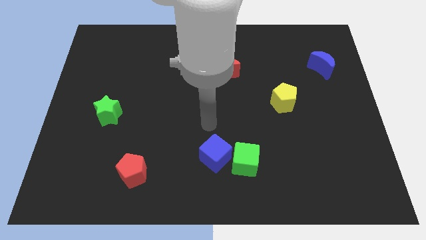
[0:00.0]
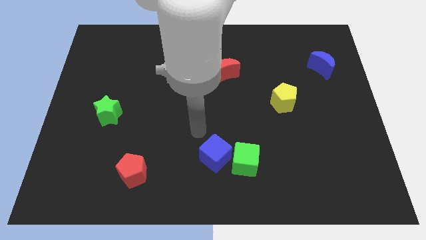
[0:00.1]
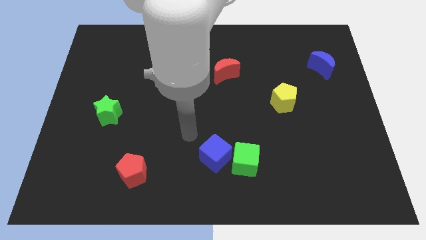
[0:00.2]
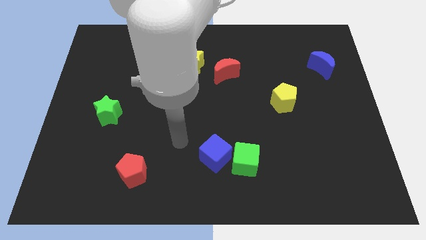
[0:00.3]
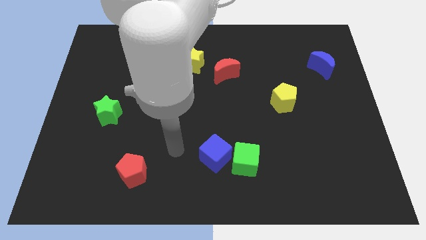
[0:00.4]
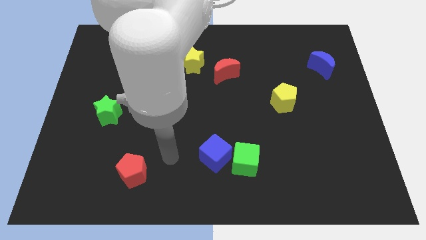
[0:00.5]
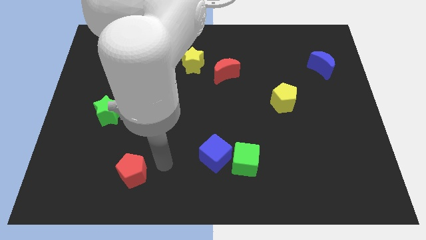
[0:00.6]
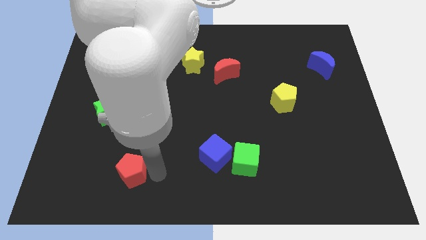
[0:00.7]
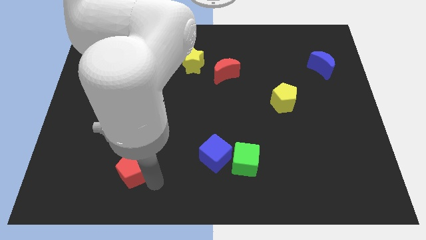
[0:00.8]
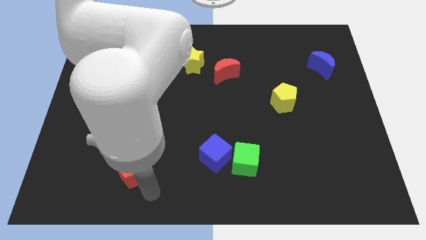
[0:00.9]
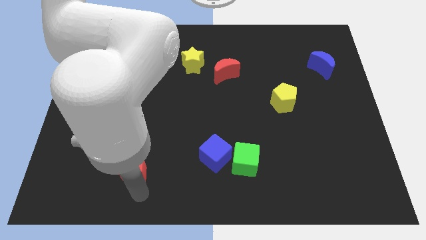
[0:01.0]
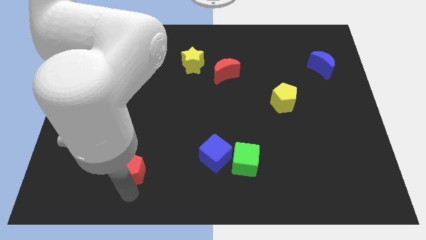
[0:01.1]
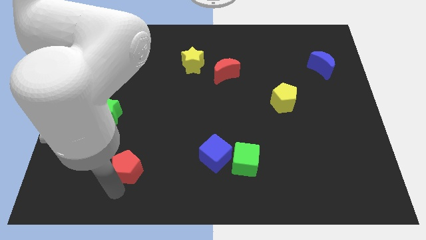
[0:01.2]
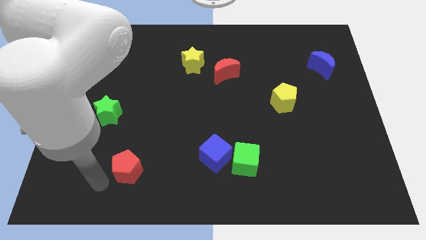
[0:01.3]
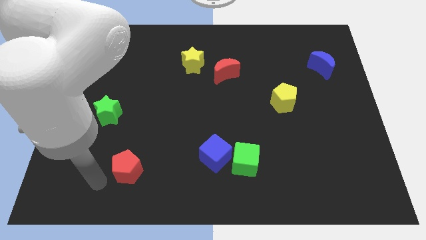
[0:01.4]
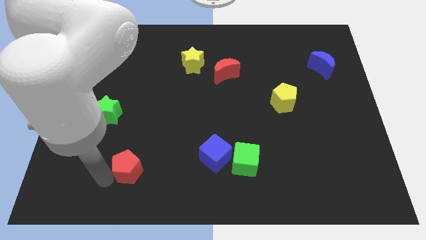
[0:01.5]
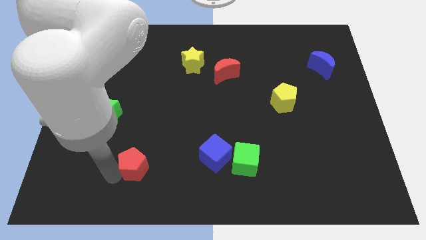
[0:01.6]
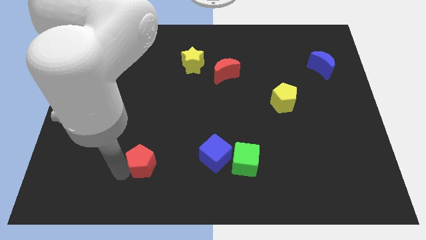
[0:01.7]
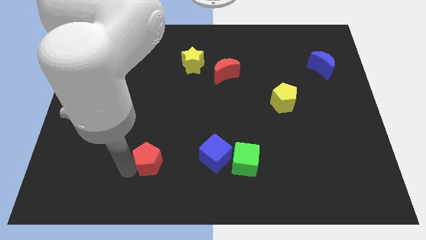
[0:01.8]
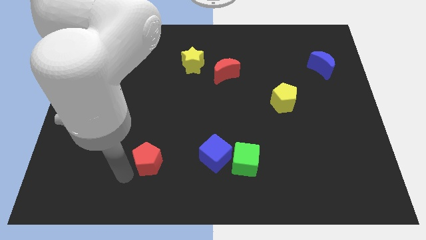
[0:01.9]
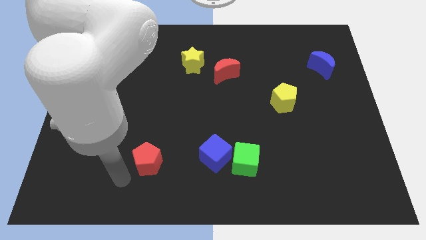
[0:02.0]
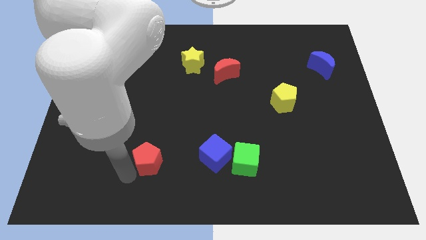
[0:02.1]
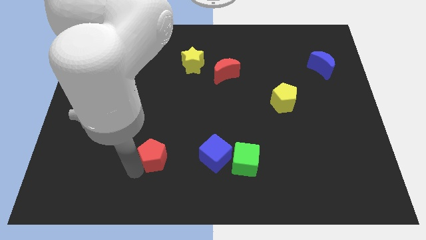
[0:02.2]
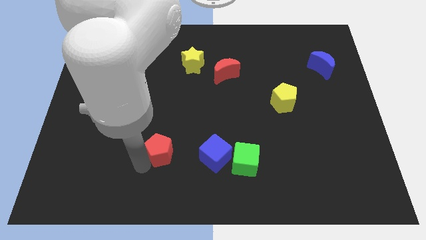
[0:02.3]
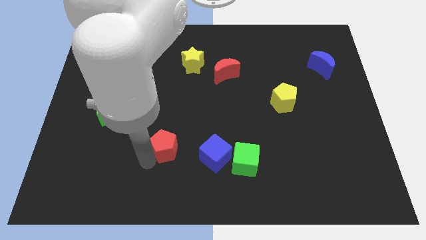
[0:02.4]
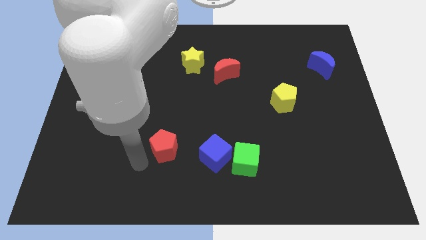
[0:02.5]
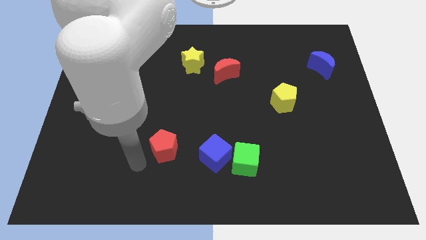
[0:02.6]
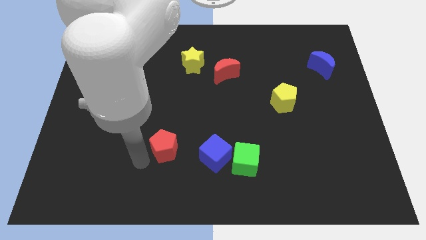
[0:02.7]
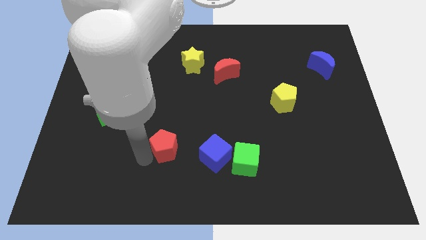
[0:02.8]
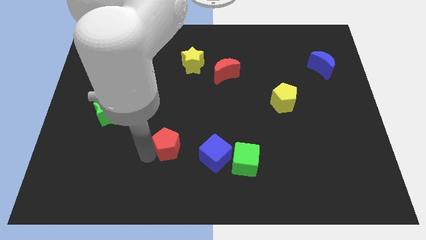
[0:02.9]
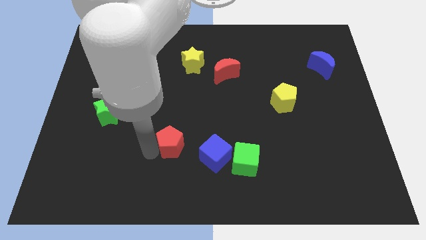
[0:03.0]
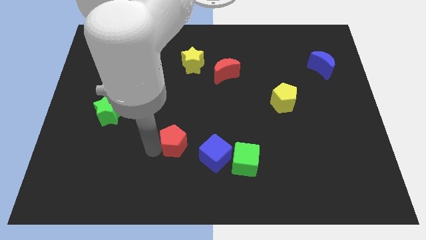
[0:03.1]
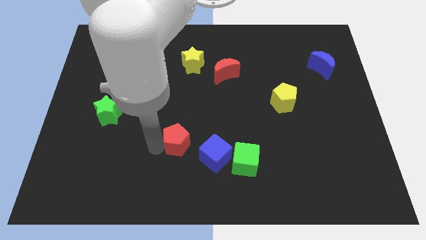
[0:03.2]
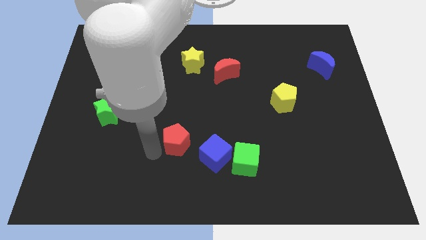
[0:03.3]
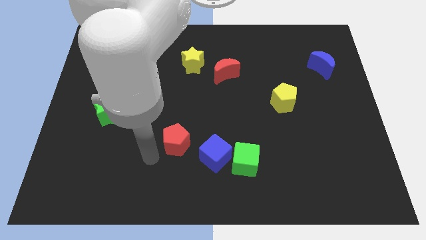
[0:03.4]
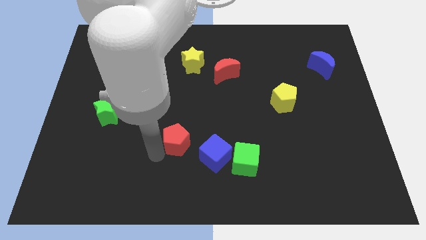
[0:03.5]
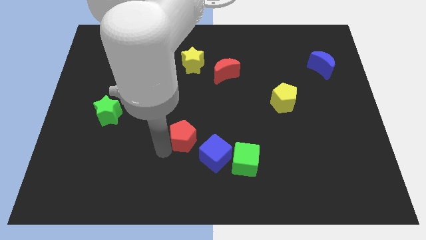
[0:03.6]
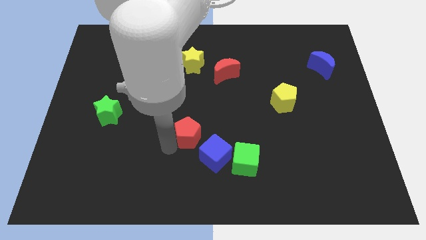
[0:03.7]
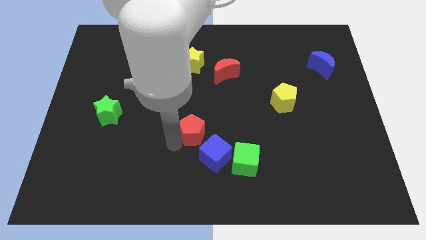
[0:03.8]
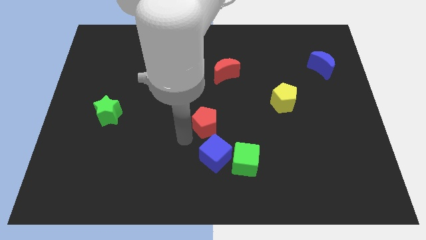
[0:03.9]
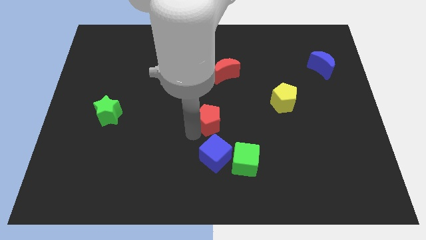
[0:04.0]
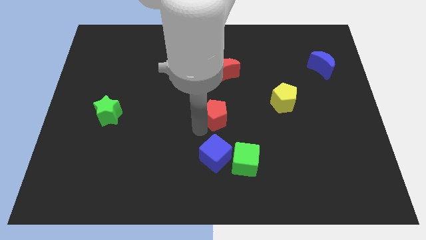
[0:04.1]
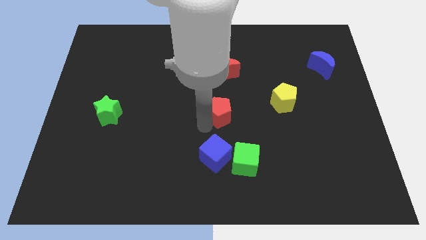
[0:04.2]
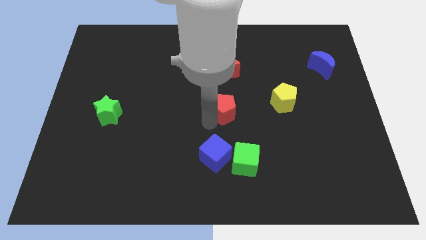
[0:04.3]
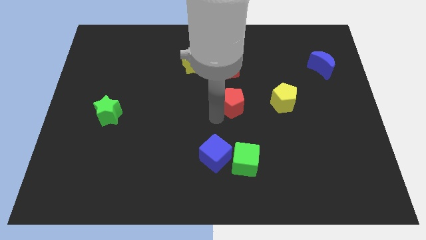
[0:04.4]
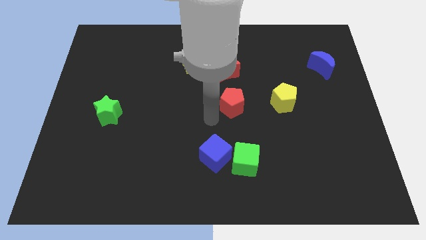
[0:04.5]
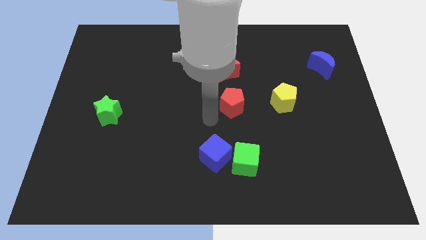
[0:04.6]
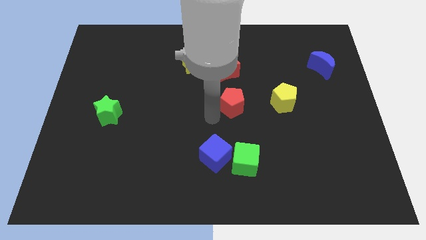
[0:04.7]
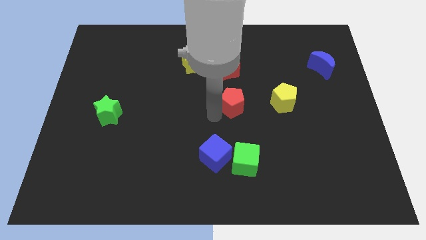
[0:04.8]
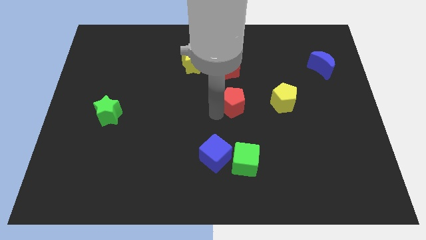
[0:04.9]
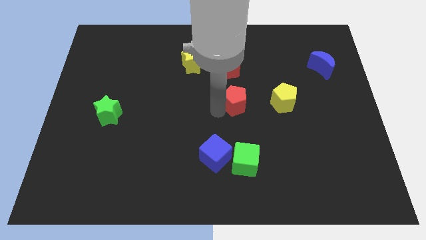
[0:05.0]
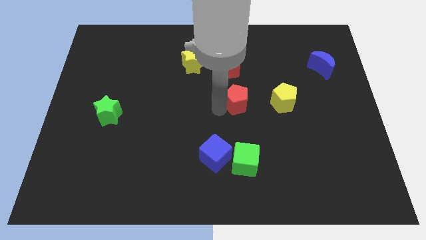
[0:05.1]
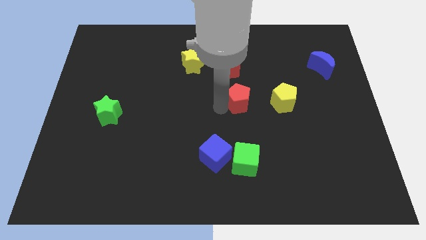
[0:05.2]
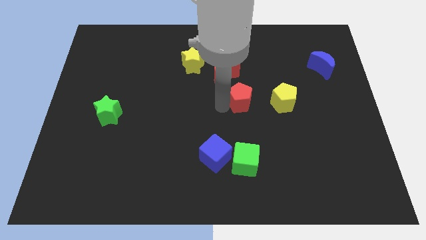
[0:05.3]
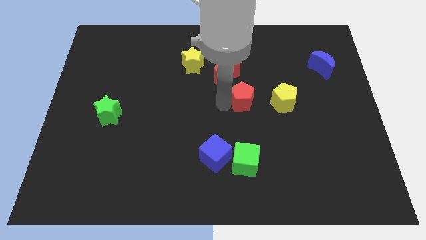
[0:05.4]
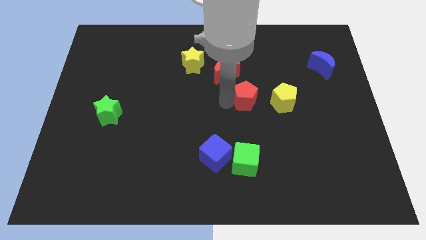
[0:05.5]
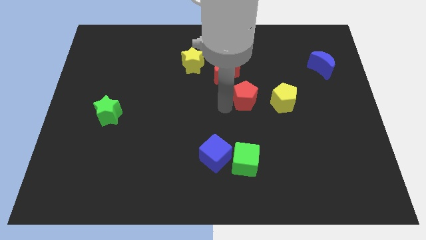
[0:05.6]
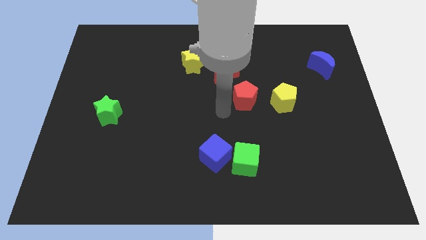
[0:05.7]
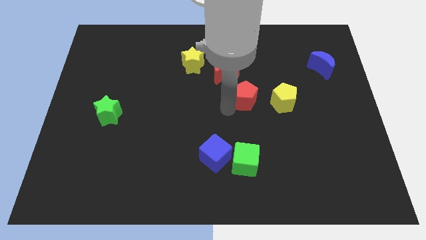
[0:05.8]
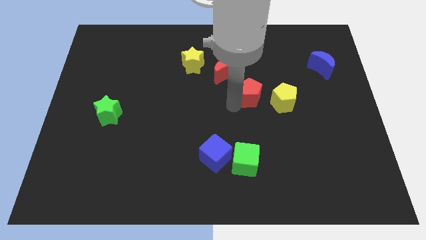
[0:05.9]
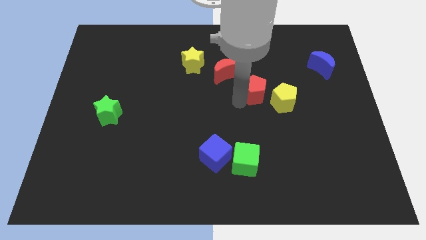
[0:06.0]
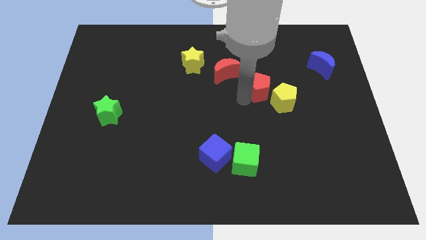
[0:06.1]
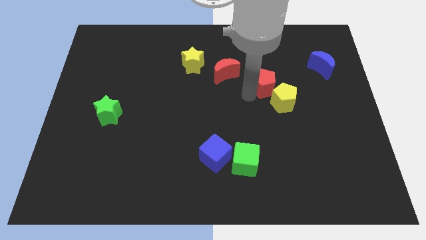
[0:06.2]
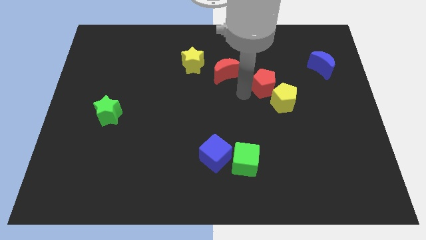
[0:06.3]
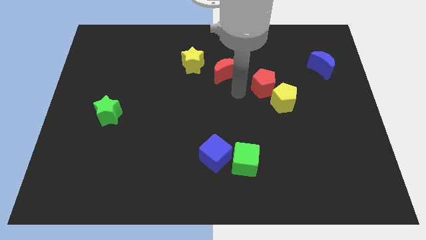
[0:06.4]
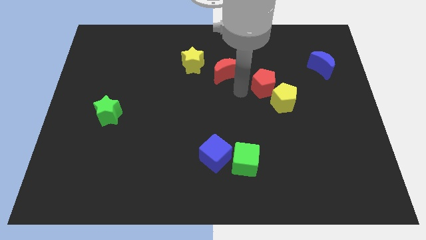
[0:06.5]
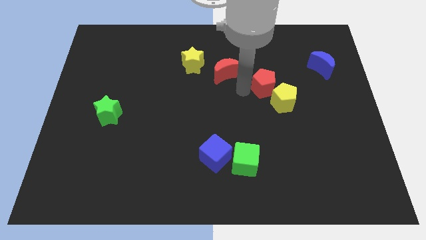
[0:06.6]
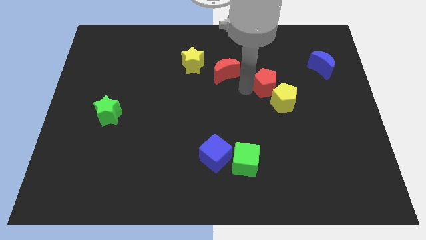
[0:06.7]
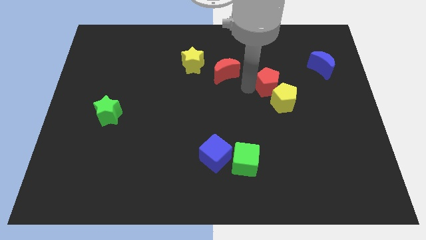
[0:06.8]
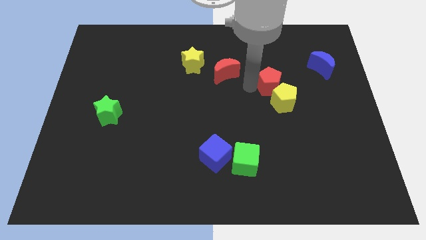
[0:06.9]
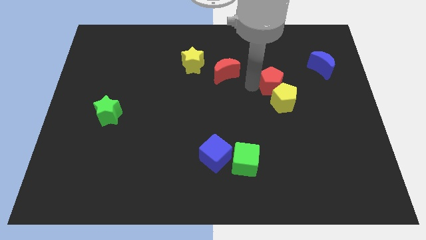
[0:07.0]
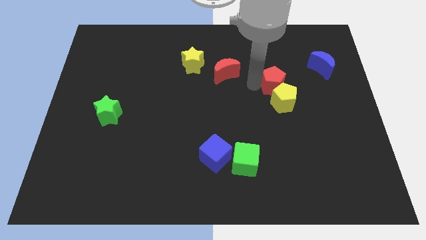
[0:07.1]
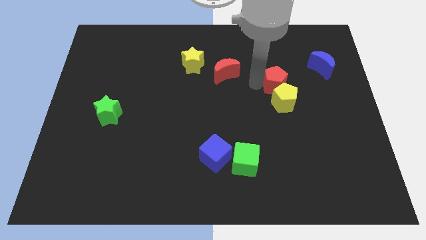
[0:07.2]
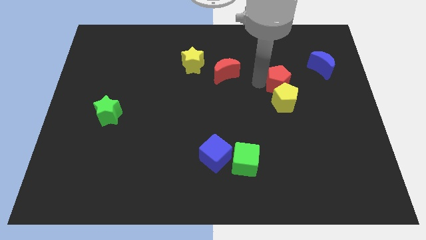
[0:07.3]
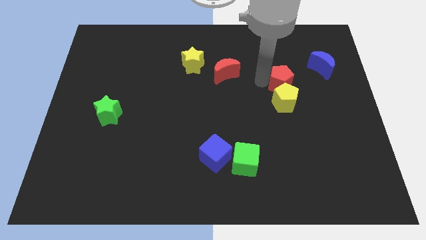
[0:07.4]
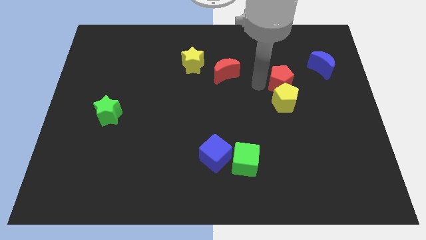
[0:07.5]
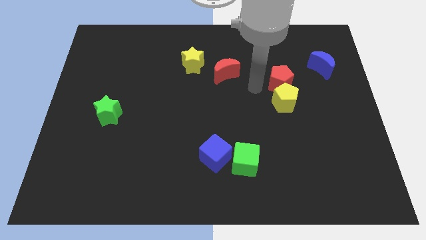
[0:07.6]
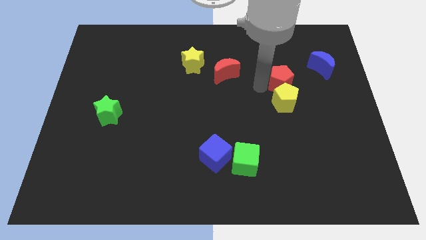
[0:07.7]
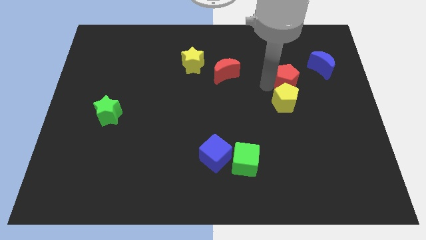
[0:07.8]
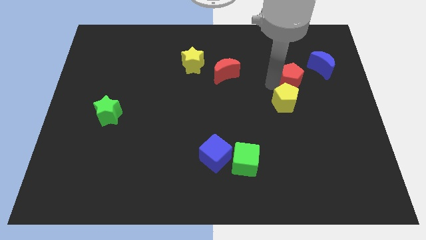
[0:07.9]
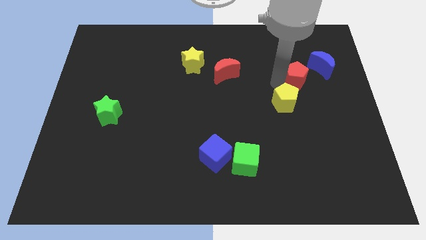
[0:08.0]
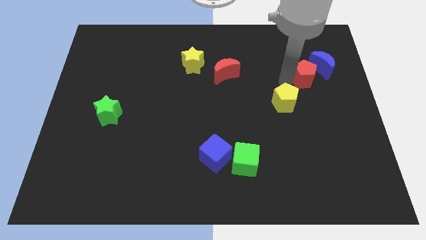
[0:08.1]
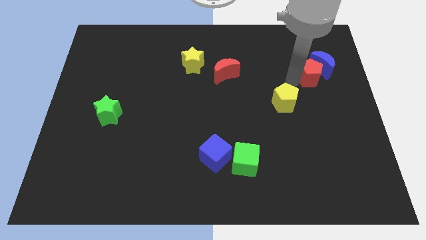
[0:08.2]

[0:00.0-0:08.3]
move the red pentagon towards the blue moon
